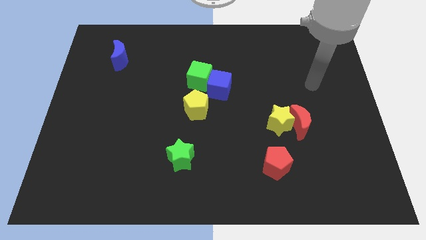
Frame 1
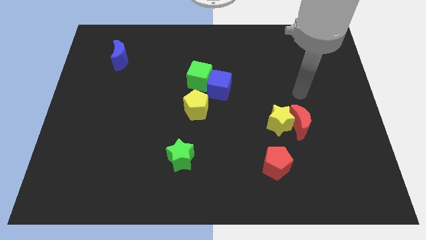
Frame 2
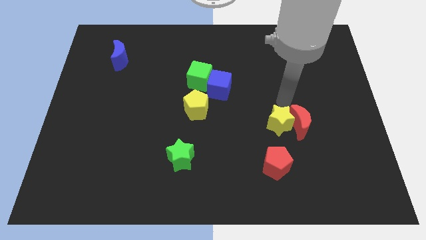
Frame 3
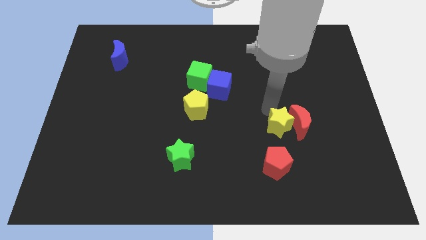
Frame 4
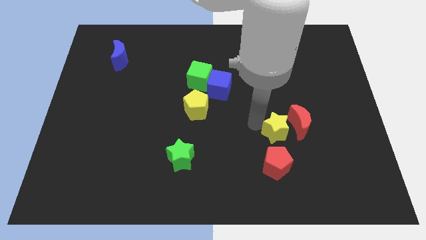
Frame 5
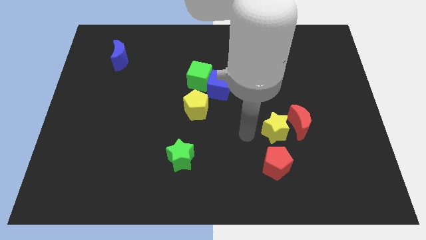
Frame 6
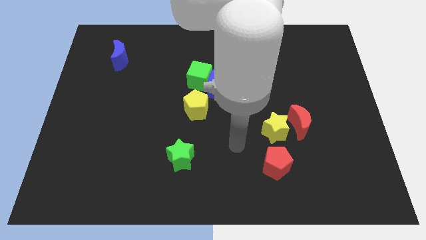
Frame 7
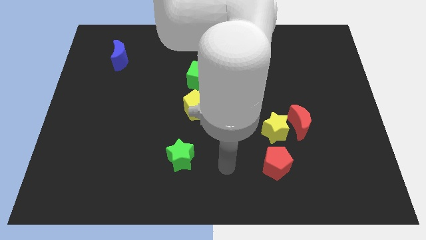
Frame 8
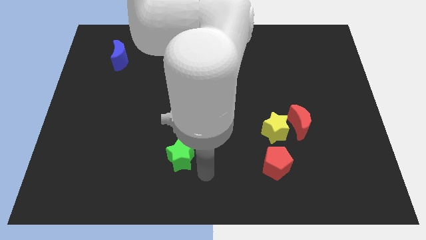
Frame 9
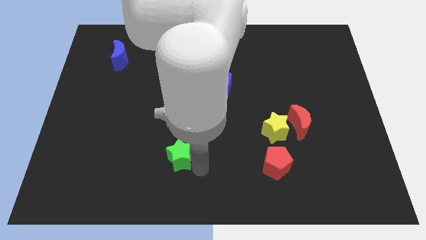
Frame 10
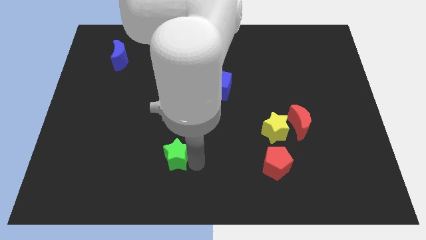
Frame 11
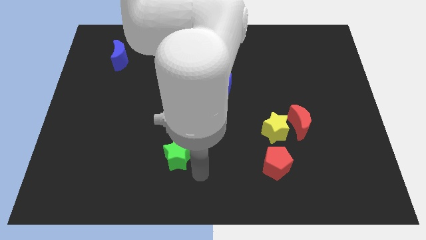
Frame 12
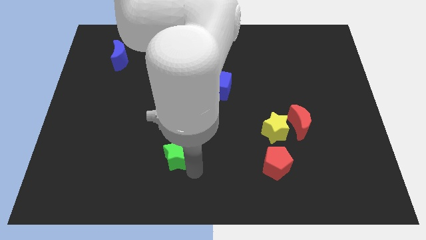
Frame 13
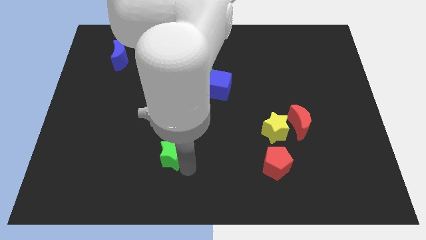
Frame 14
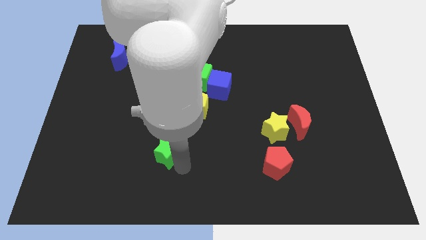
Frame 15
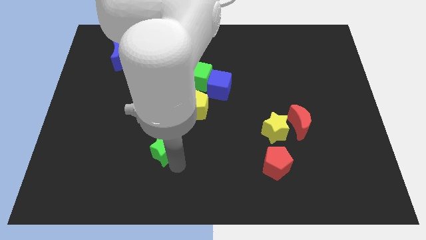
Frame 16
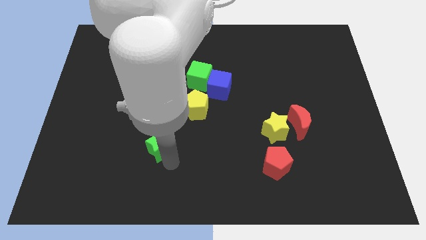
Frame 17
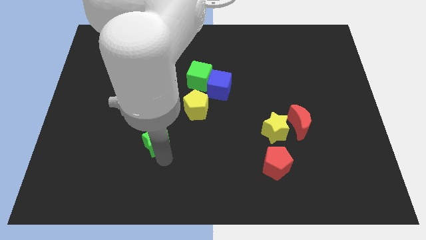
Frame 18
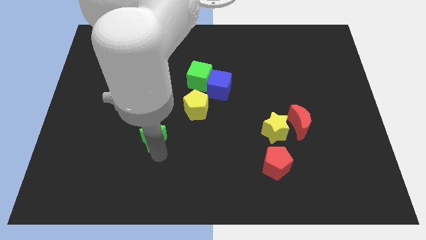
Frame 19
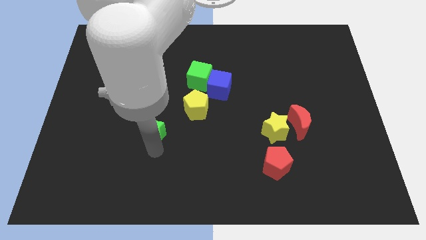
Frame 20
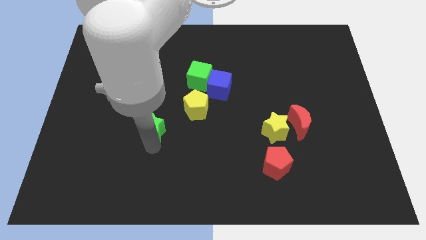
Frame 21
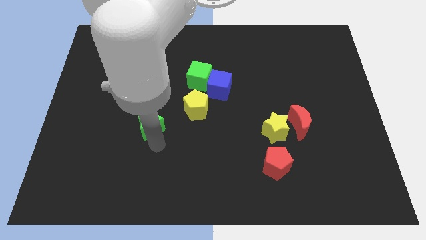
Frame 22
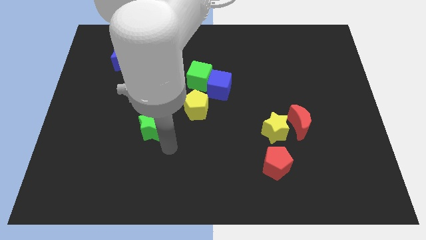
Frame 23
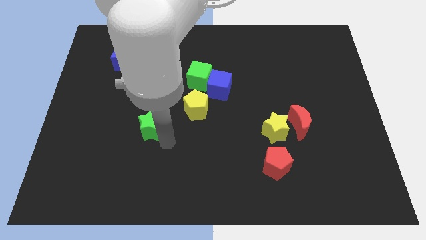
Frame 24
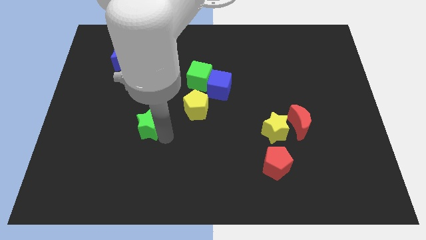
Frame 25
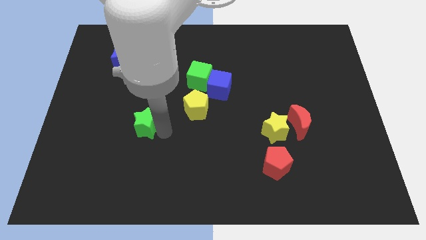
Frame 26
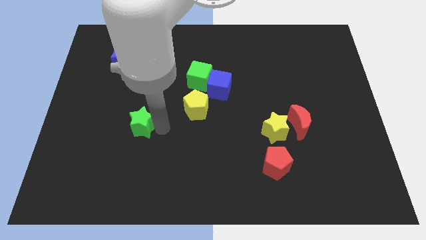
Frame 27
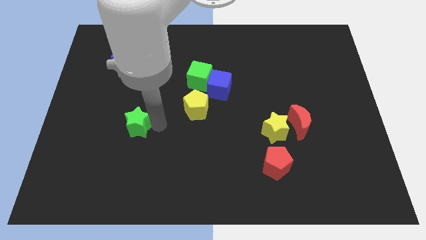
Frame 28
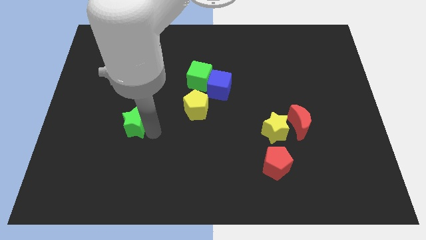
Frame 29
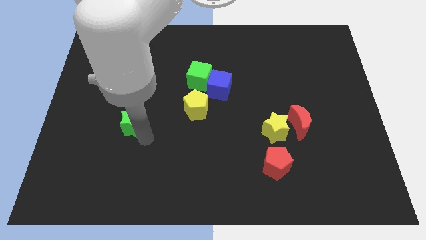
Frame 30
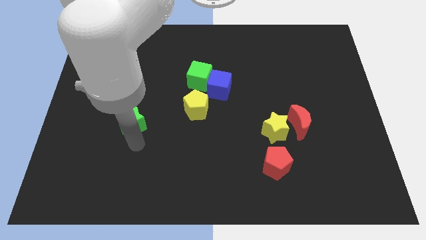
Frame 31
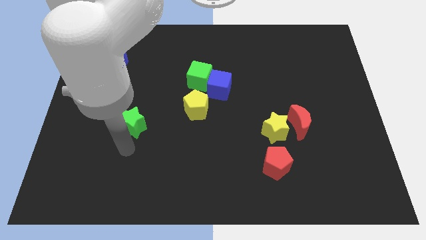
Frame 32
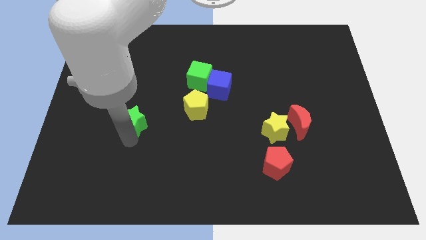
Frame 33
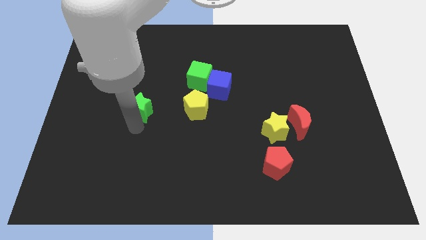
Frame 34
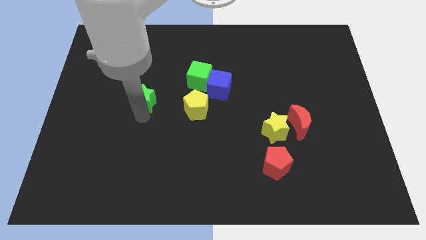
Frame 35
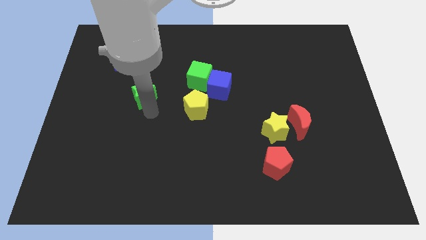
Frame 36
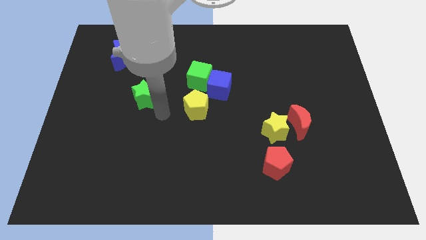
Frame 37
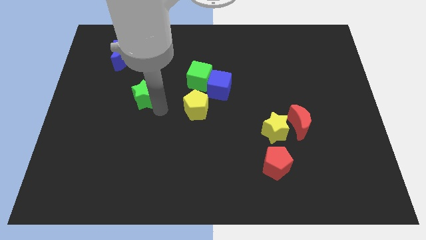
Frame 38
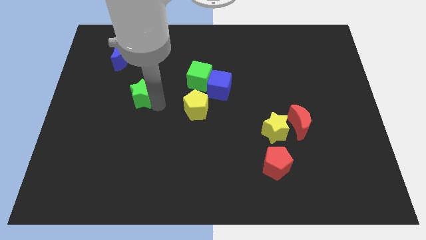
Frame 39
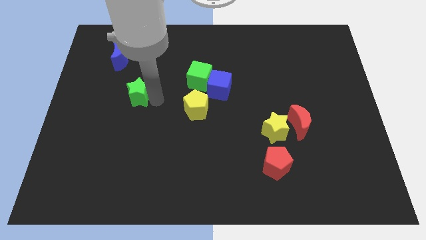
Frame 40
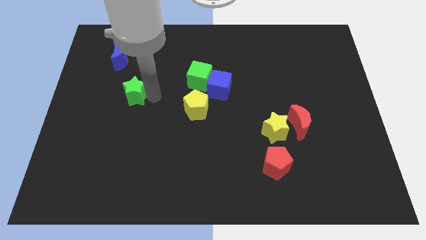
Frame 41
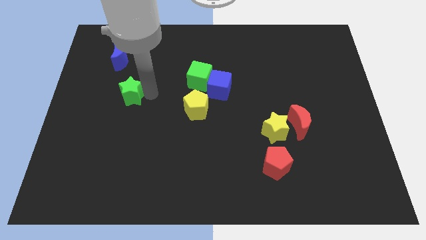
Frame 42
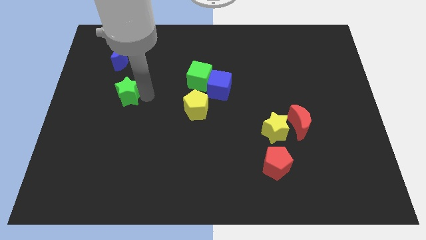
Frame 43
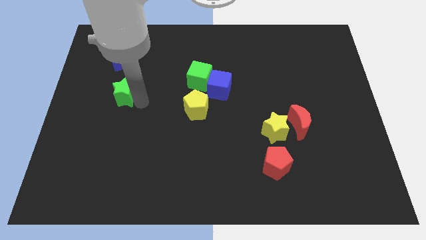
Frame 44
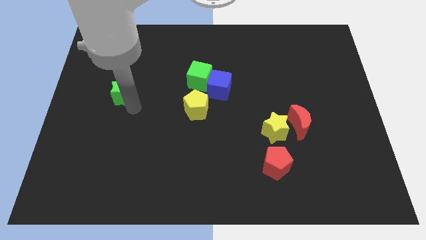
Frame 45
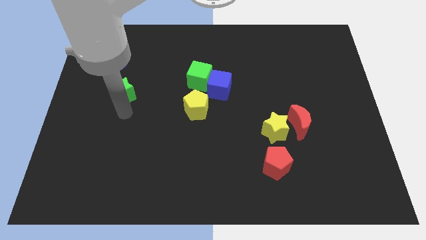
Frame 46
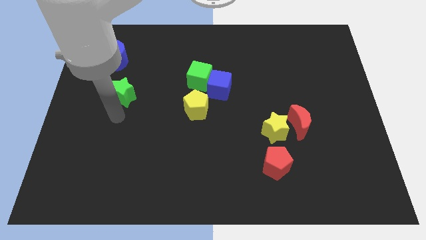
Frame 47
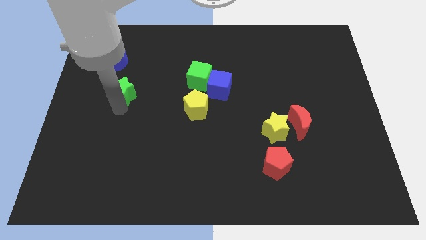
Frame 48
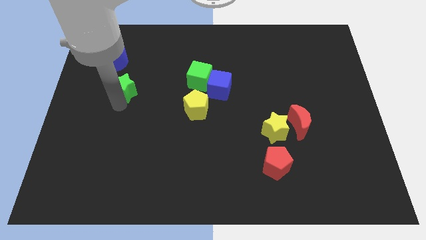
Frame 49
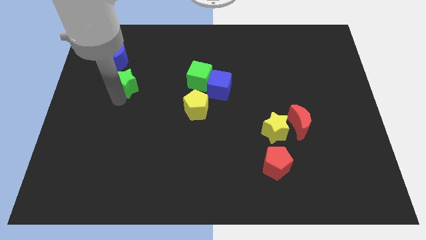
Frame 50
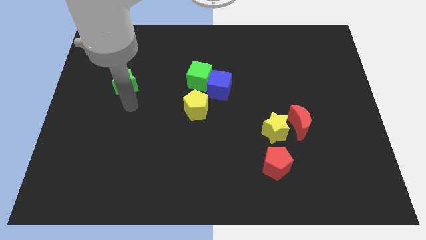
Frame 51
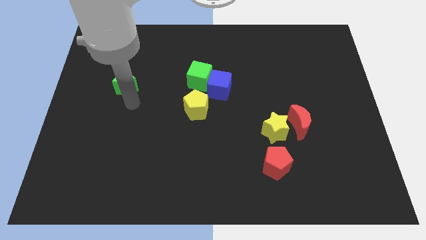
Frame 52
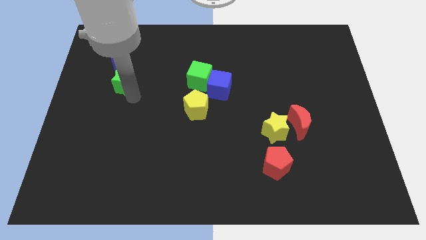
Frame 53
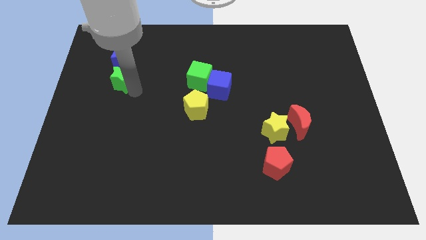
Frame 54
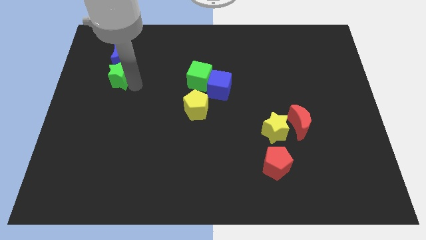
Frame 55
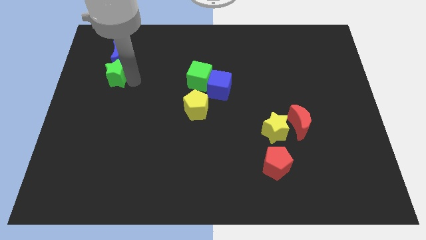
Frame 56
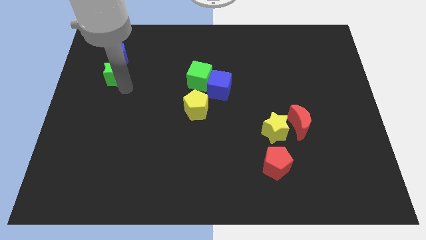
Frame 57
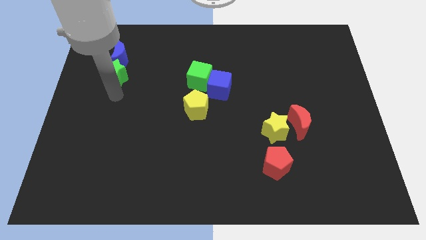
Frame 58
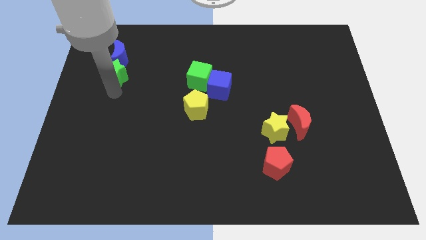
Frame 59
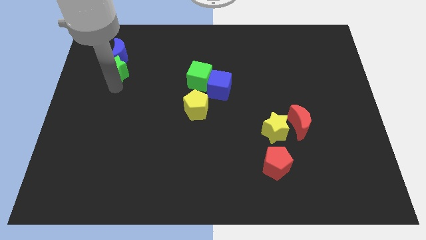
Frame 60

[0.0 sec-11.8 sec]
slide the green star close to the blue moon

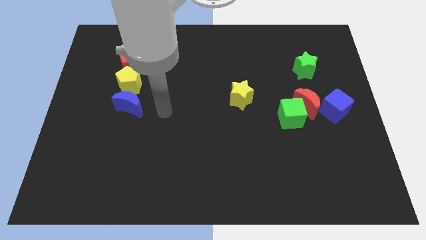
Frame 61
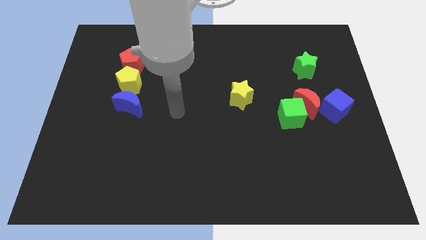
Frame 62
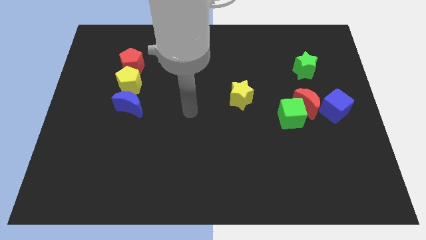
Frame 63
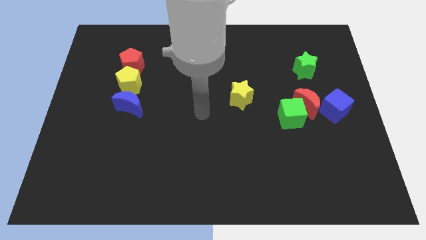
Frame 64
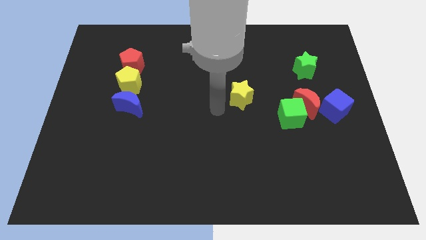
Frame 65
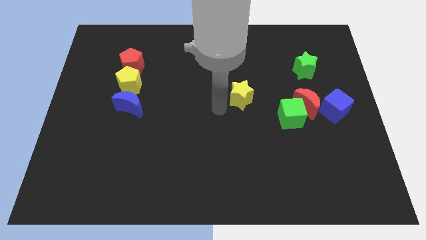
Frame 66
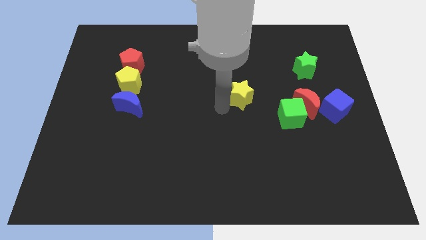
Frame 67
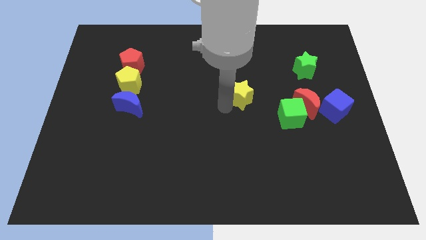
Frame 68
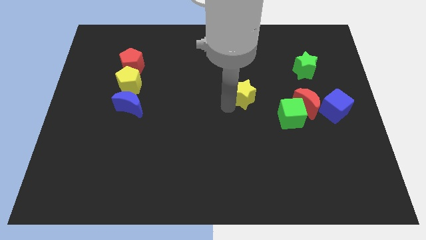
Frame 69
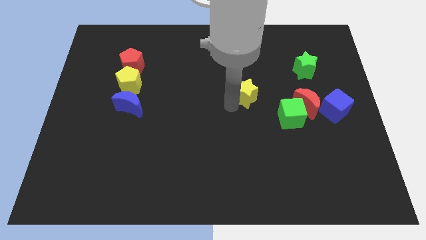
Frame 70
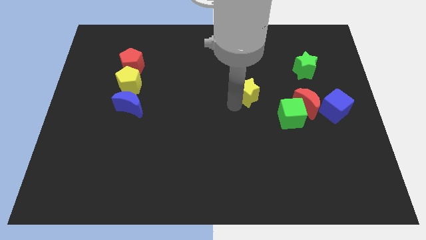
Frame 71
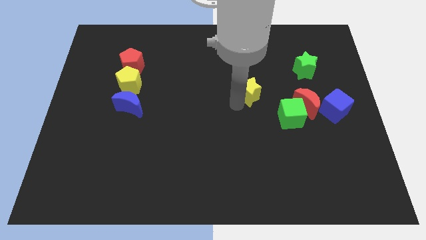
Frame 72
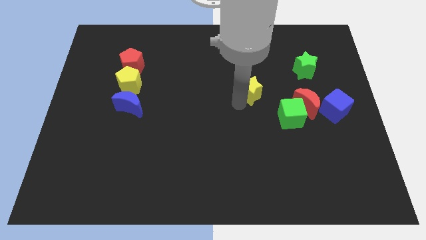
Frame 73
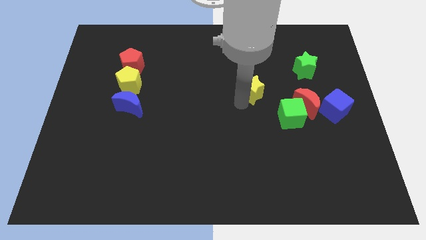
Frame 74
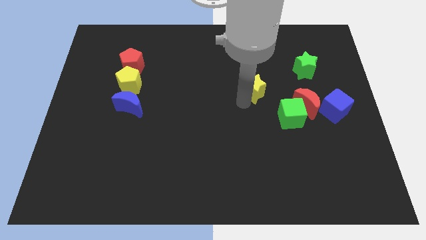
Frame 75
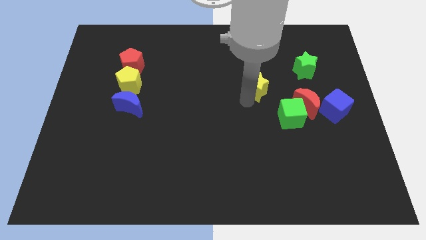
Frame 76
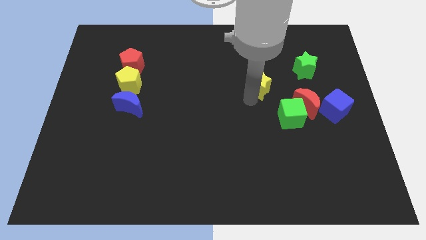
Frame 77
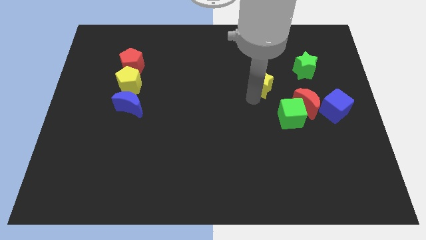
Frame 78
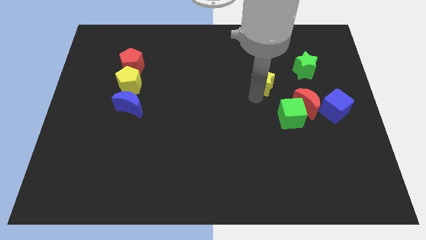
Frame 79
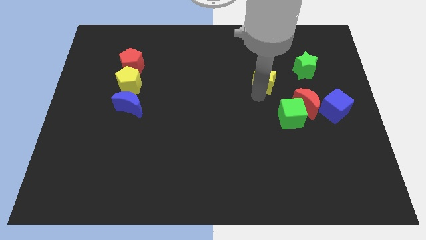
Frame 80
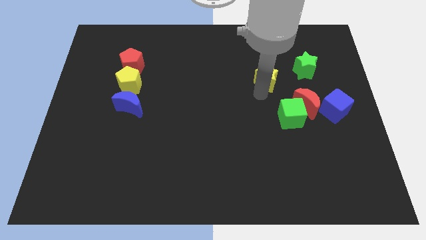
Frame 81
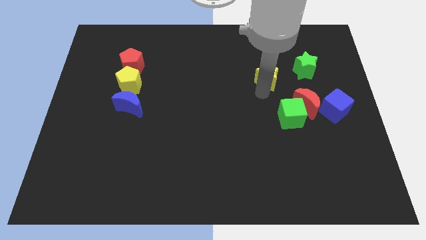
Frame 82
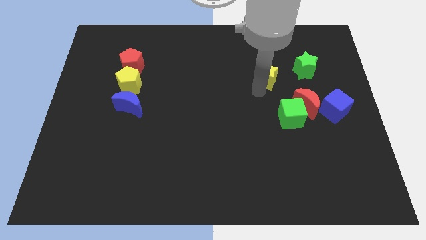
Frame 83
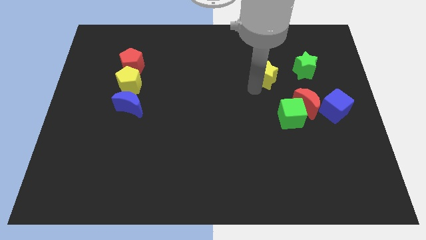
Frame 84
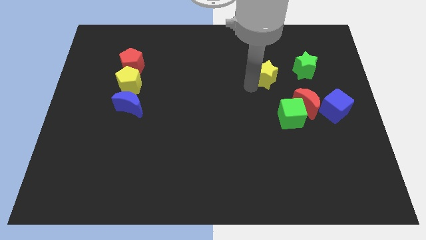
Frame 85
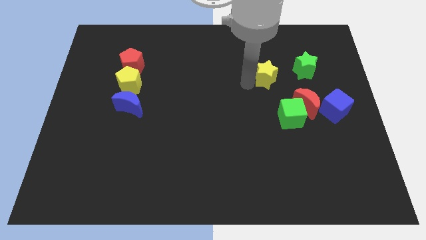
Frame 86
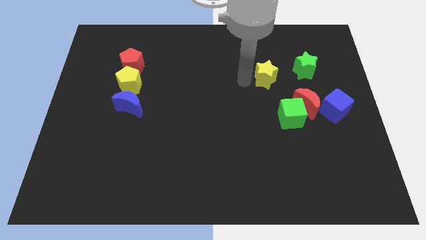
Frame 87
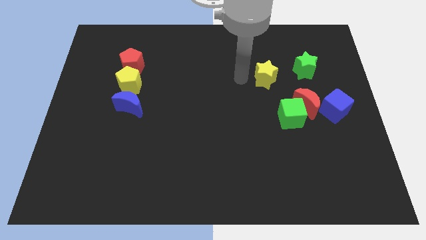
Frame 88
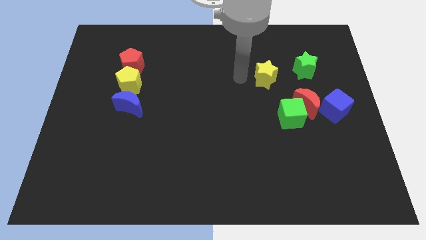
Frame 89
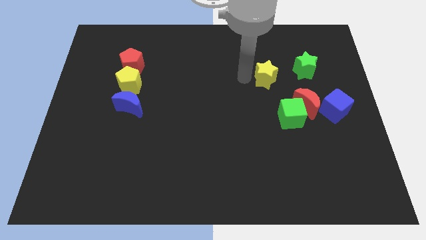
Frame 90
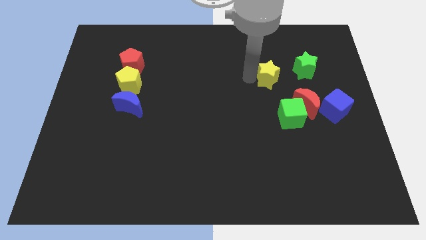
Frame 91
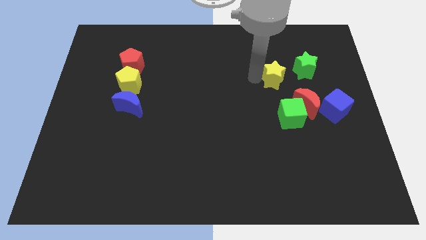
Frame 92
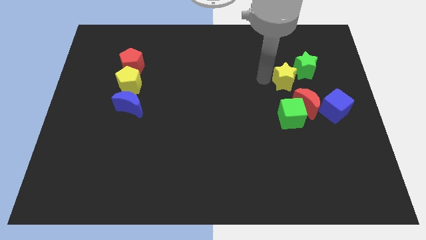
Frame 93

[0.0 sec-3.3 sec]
put the yellow star next to the green star
